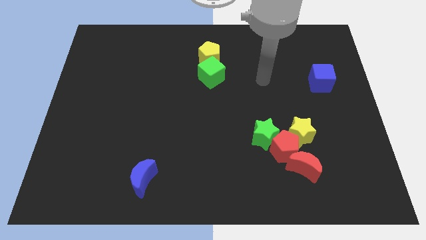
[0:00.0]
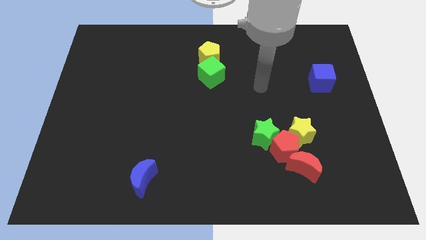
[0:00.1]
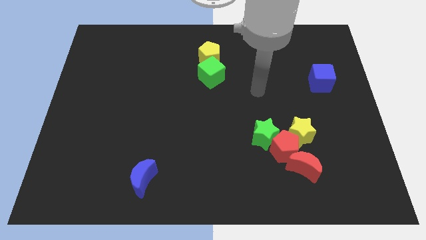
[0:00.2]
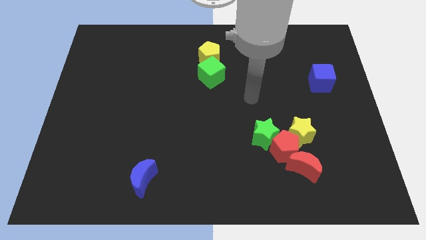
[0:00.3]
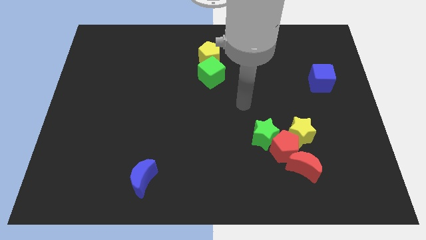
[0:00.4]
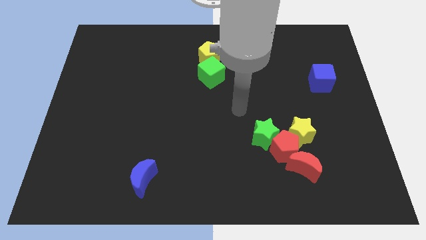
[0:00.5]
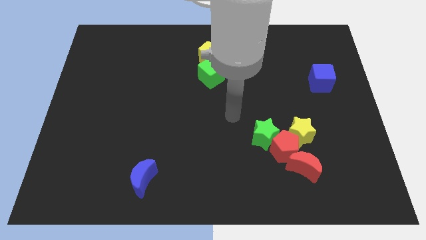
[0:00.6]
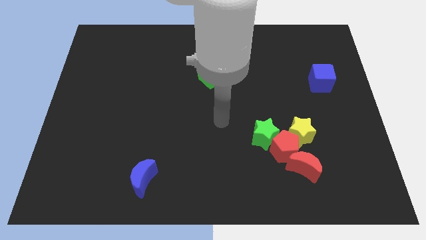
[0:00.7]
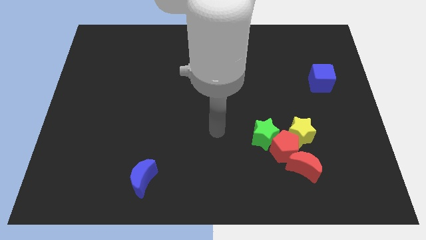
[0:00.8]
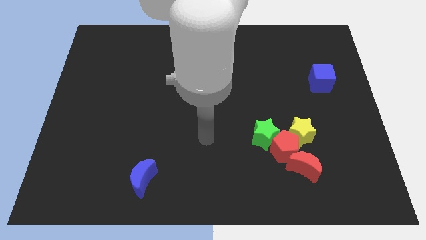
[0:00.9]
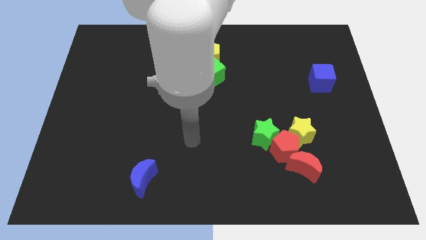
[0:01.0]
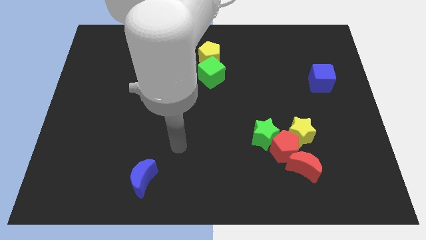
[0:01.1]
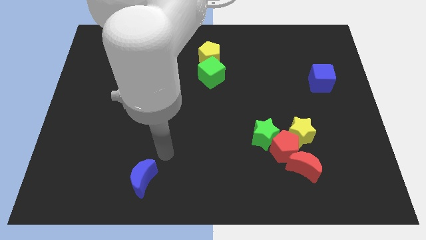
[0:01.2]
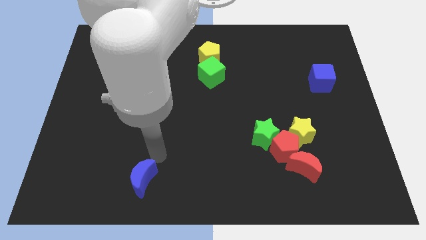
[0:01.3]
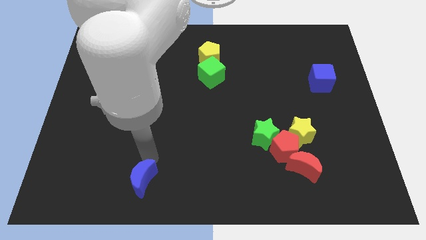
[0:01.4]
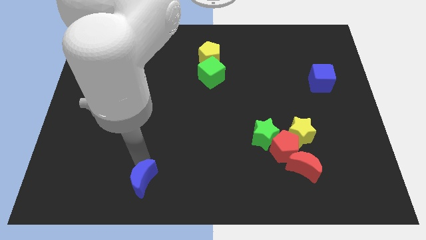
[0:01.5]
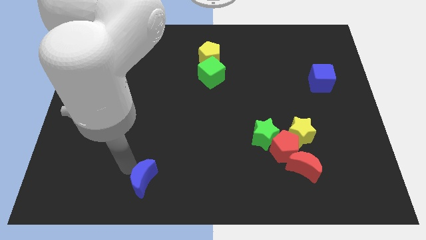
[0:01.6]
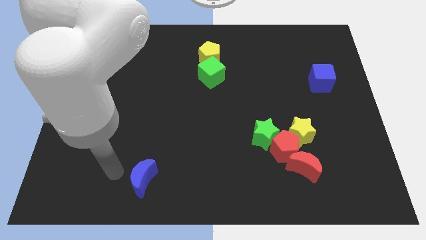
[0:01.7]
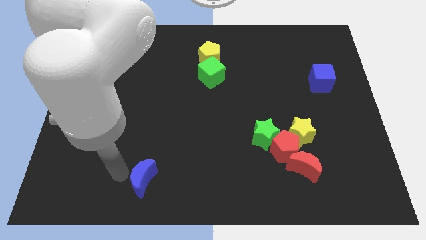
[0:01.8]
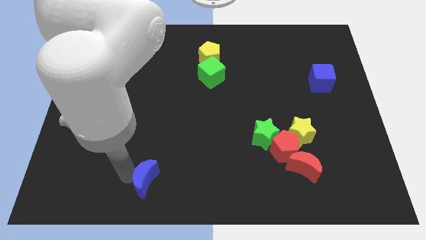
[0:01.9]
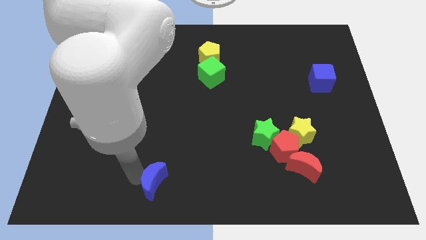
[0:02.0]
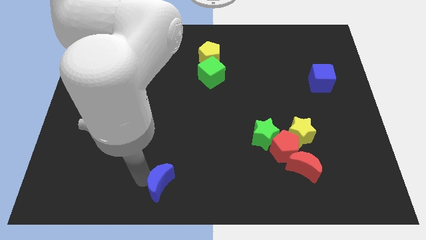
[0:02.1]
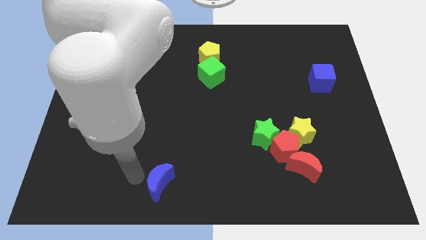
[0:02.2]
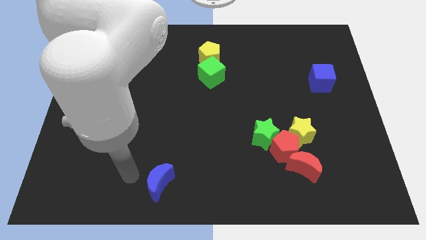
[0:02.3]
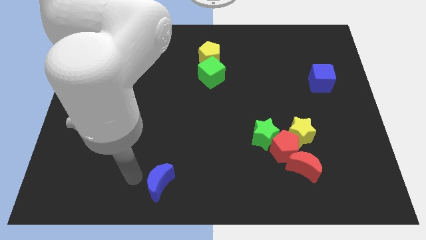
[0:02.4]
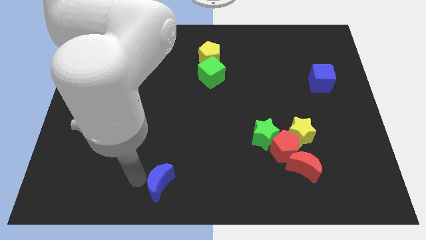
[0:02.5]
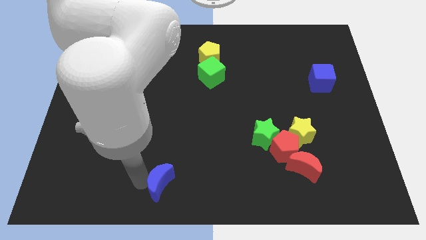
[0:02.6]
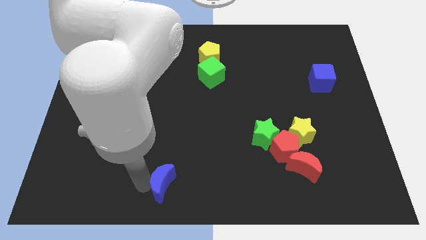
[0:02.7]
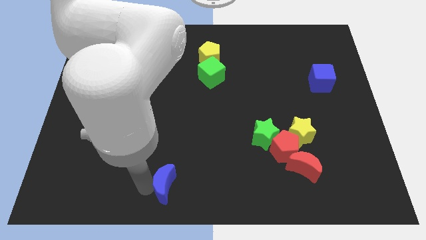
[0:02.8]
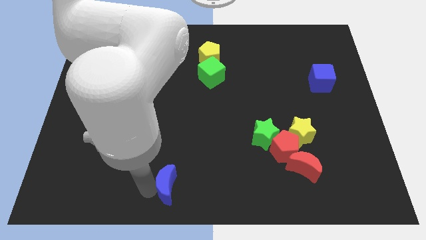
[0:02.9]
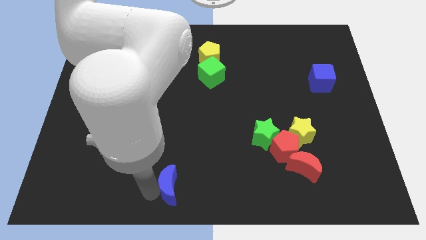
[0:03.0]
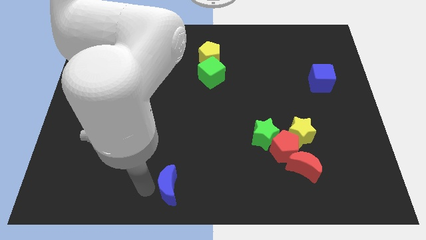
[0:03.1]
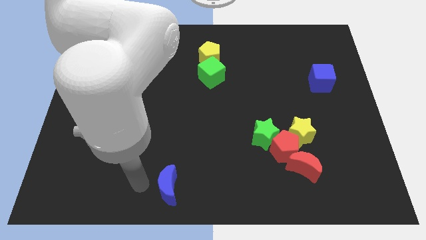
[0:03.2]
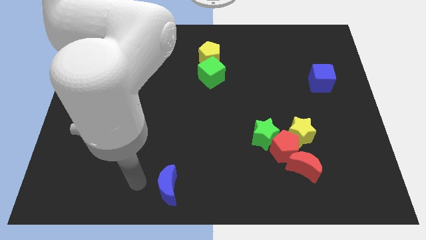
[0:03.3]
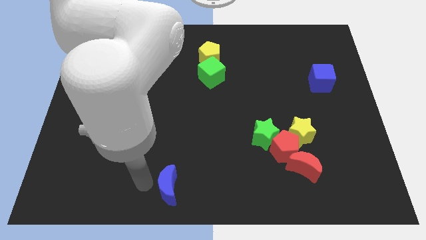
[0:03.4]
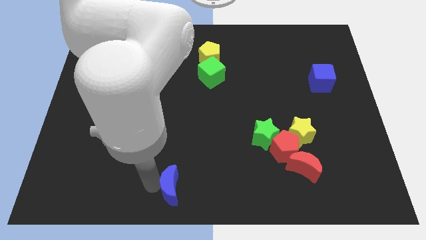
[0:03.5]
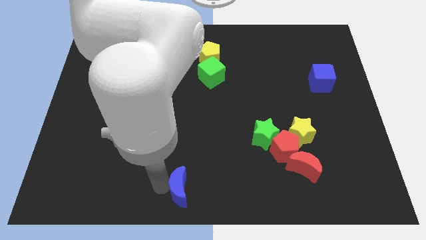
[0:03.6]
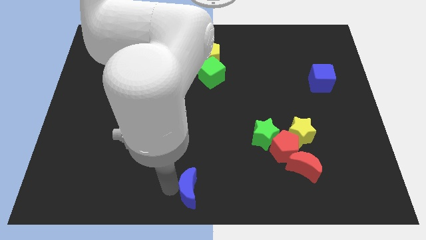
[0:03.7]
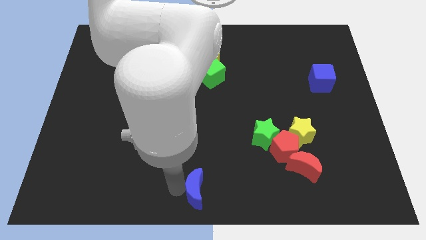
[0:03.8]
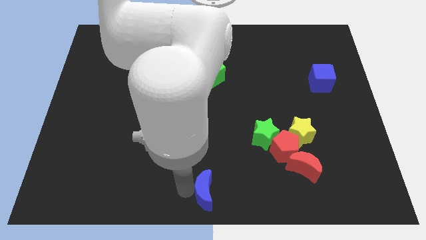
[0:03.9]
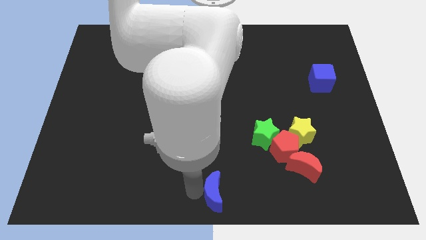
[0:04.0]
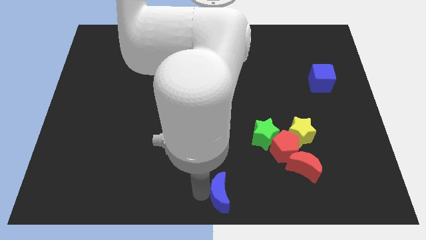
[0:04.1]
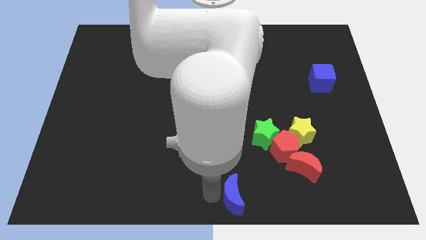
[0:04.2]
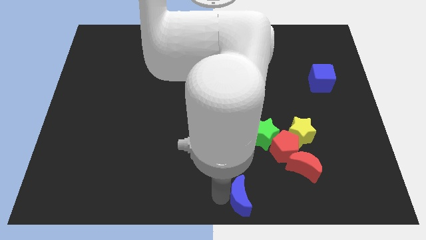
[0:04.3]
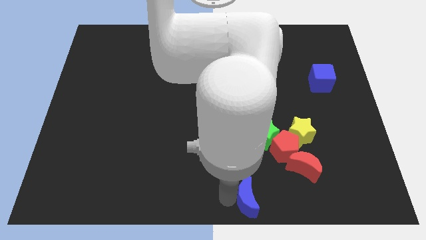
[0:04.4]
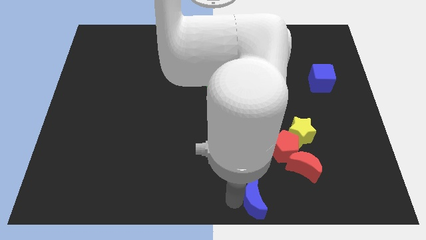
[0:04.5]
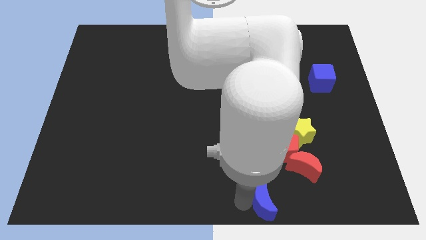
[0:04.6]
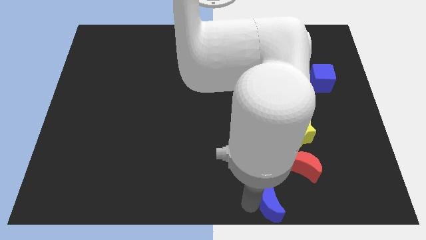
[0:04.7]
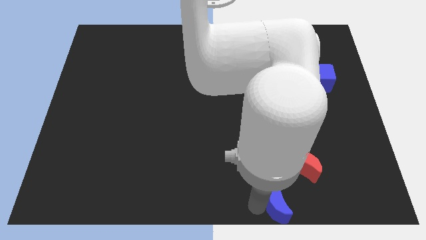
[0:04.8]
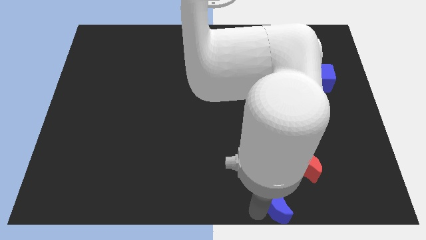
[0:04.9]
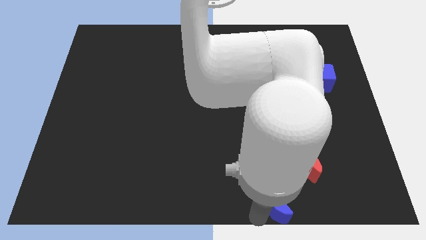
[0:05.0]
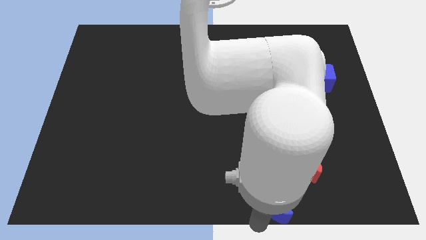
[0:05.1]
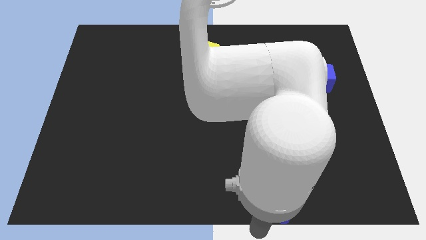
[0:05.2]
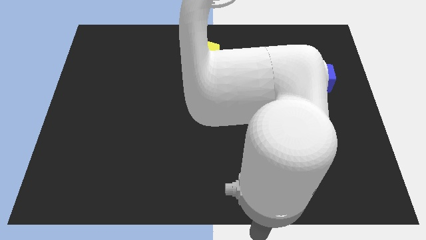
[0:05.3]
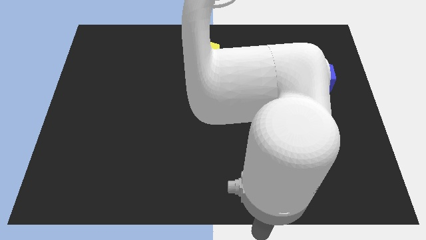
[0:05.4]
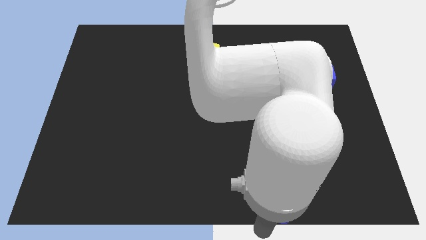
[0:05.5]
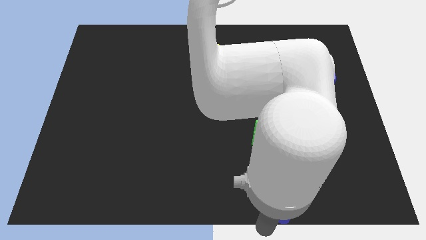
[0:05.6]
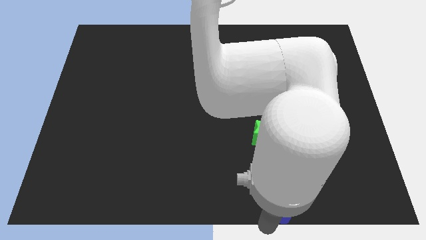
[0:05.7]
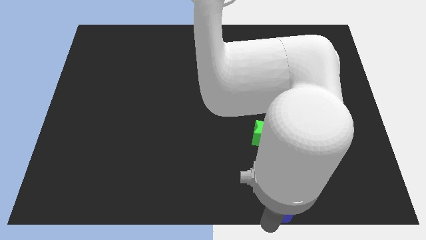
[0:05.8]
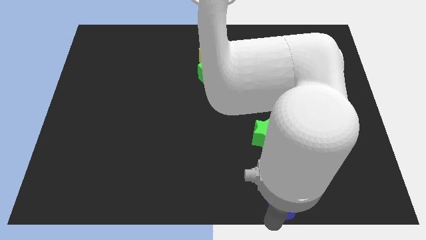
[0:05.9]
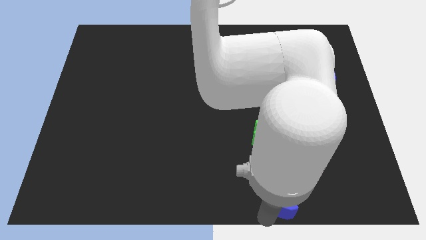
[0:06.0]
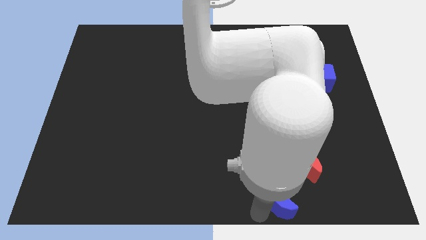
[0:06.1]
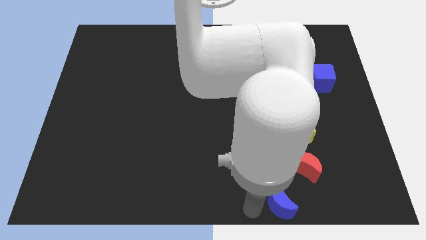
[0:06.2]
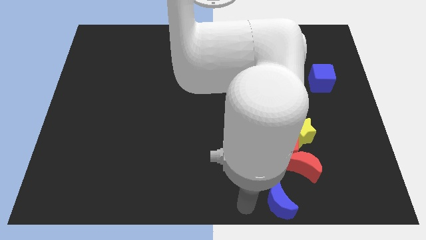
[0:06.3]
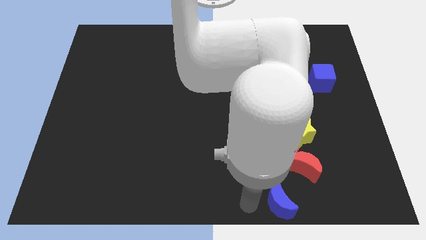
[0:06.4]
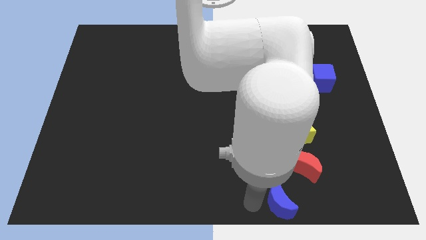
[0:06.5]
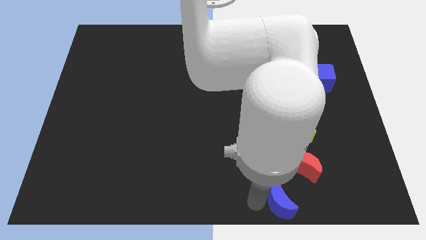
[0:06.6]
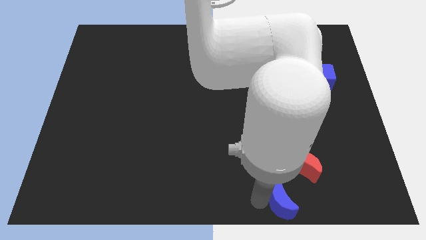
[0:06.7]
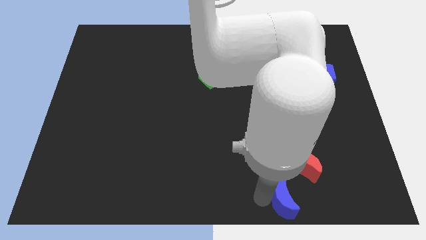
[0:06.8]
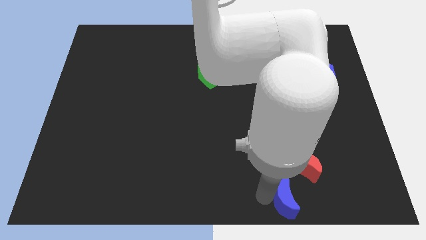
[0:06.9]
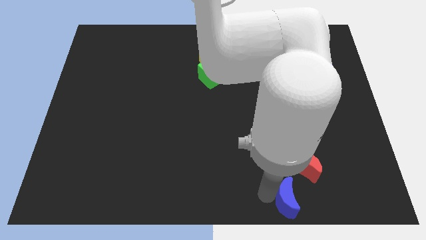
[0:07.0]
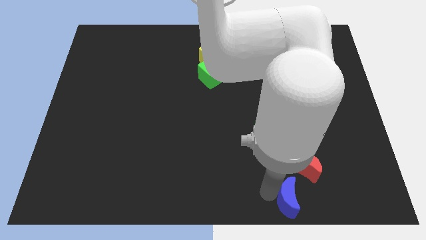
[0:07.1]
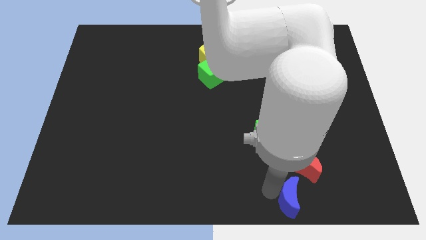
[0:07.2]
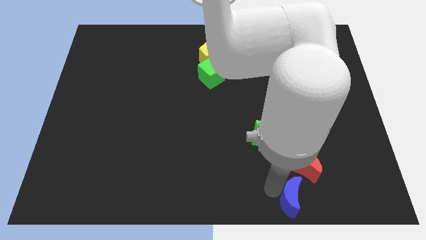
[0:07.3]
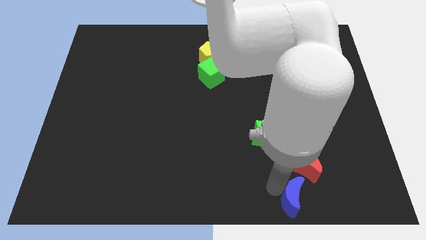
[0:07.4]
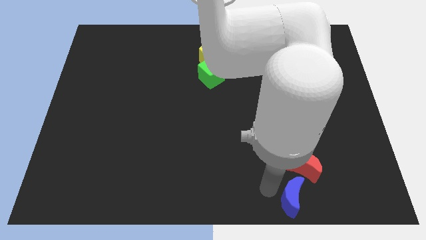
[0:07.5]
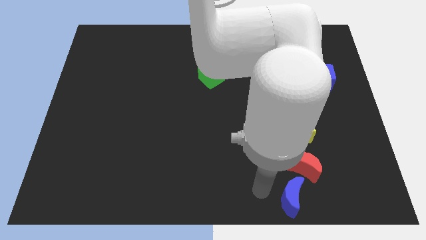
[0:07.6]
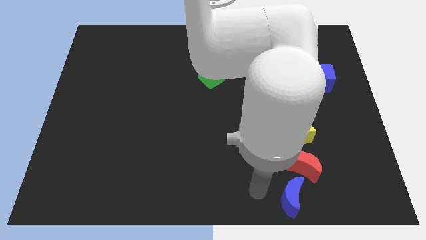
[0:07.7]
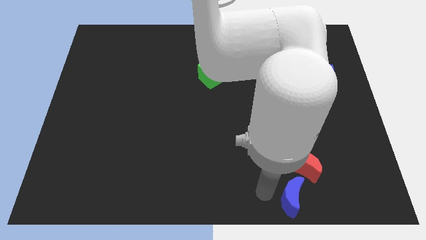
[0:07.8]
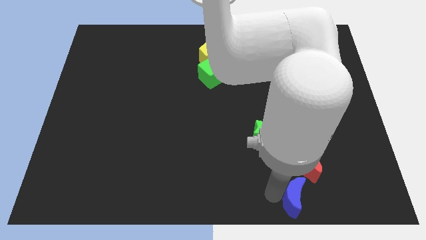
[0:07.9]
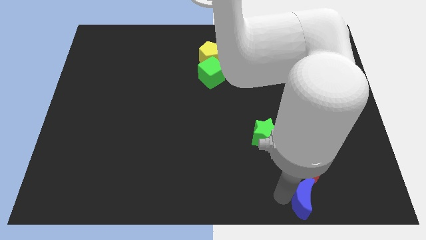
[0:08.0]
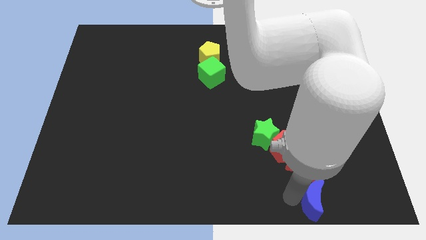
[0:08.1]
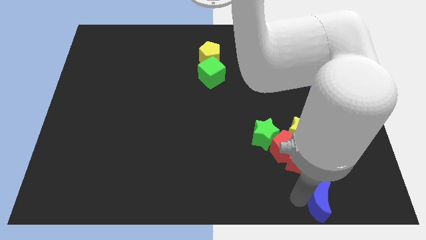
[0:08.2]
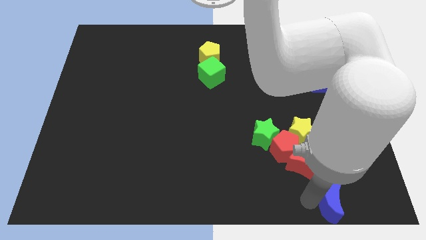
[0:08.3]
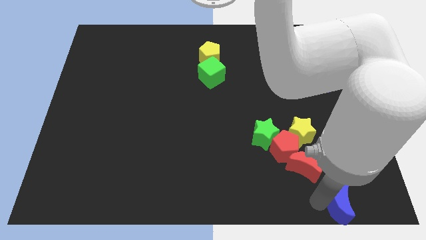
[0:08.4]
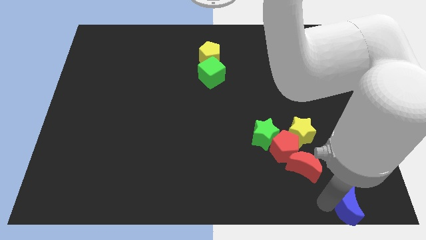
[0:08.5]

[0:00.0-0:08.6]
slide the blue moon to the bottom right of the board
